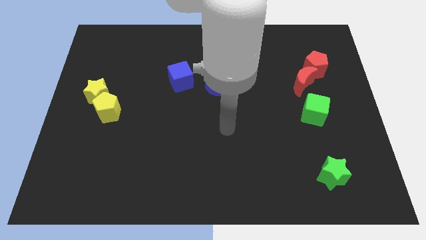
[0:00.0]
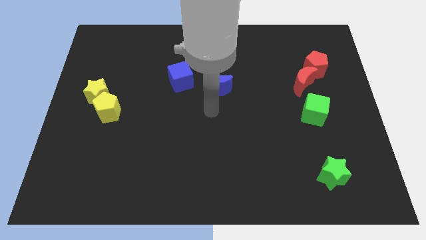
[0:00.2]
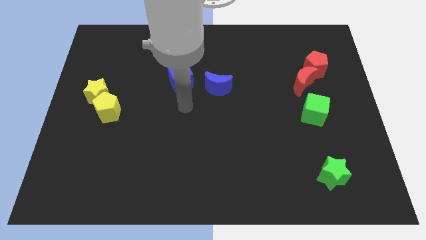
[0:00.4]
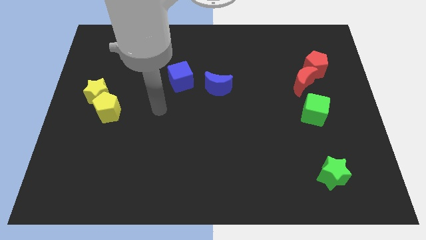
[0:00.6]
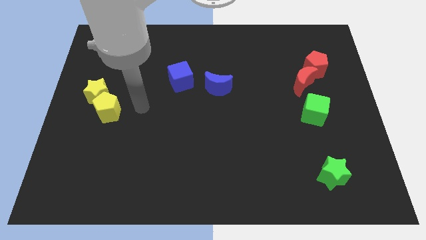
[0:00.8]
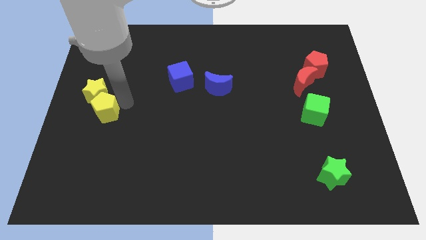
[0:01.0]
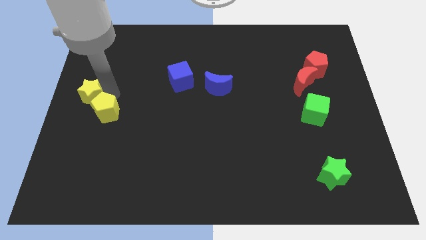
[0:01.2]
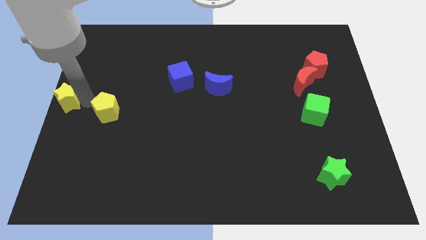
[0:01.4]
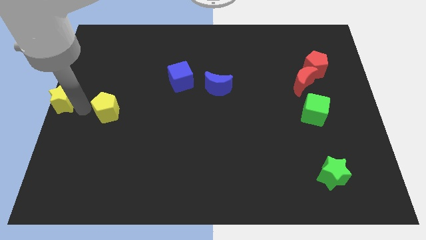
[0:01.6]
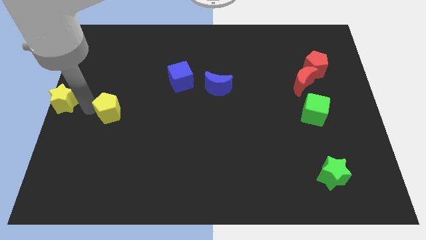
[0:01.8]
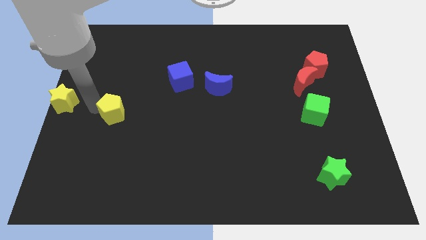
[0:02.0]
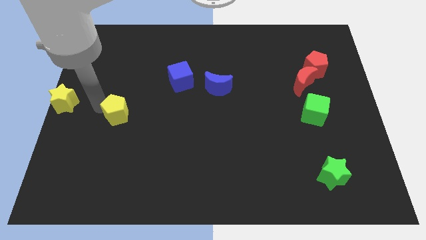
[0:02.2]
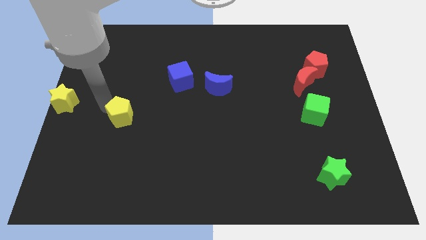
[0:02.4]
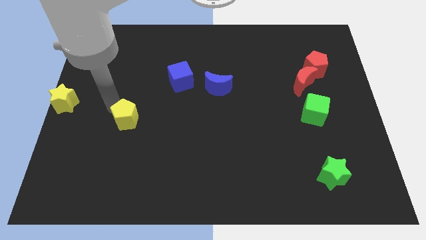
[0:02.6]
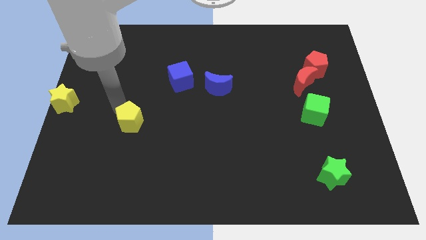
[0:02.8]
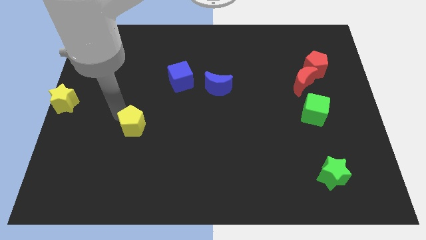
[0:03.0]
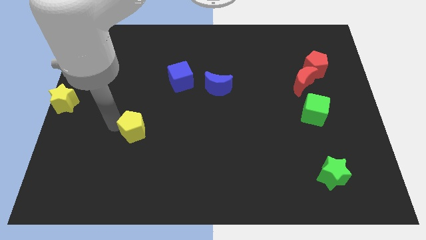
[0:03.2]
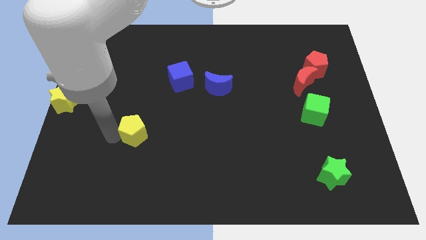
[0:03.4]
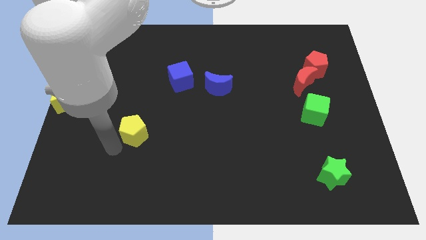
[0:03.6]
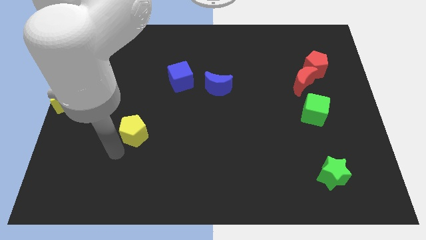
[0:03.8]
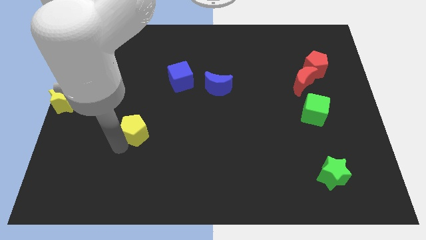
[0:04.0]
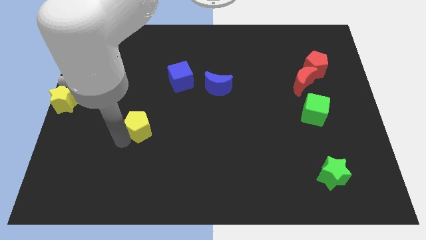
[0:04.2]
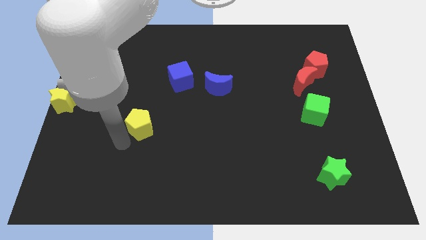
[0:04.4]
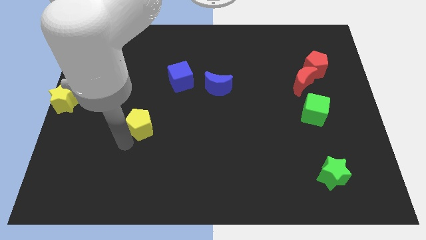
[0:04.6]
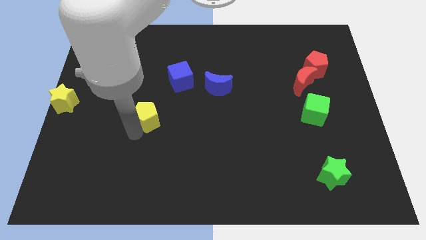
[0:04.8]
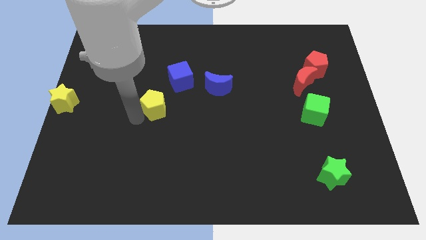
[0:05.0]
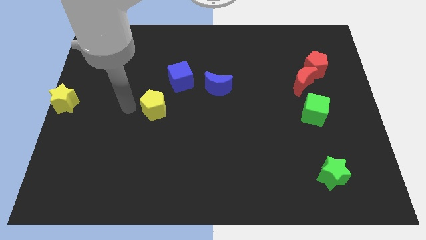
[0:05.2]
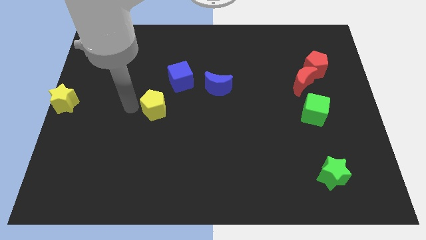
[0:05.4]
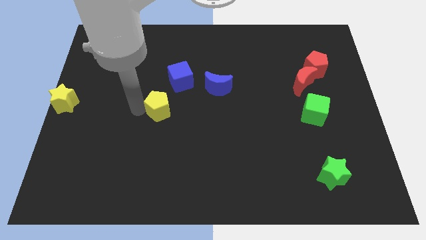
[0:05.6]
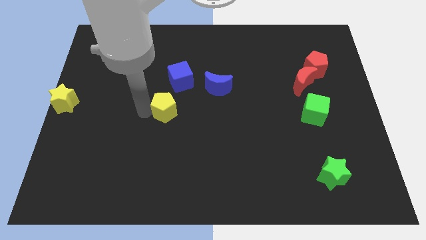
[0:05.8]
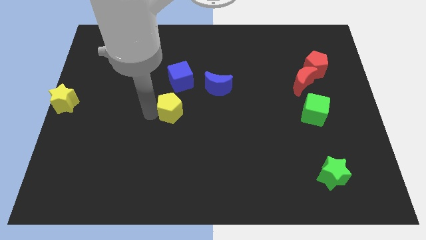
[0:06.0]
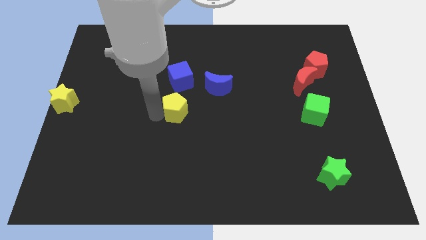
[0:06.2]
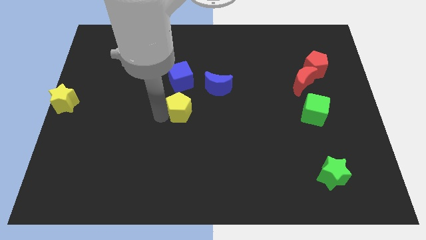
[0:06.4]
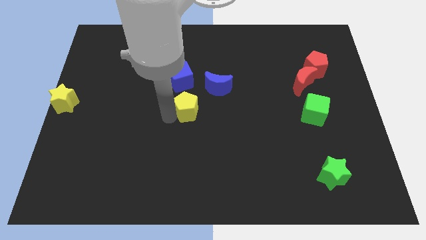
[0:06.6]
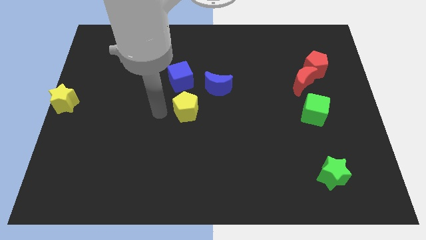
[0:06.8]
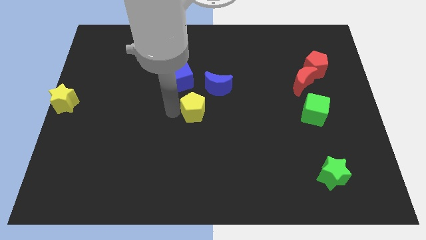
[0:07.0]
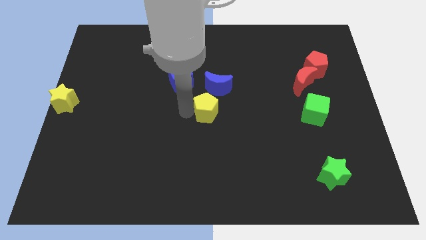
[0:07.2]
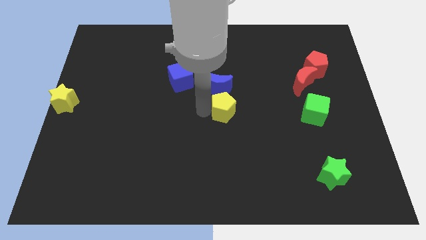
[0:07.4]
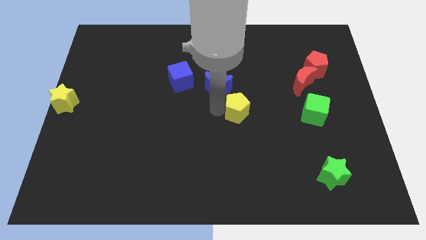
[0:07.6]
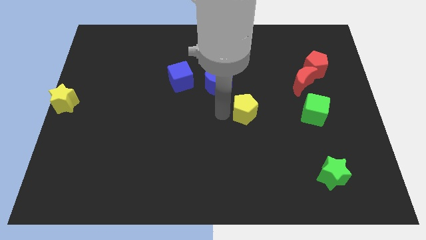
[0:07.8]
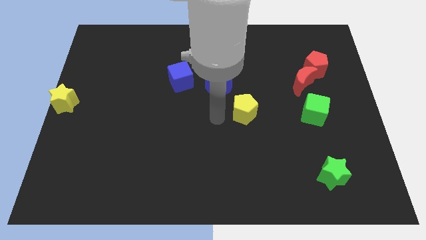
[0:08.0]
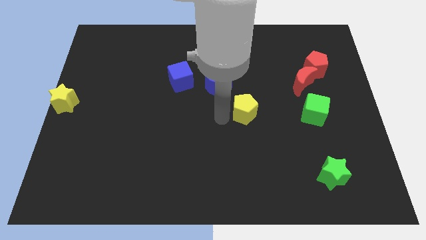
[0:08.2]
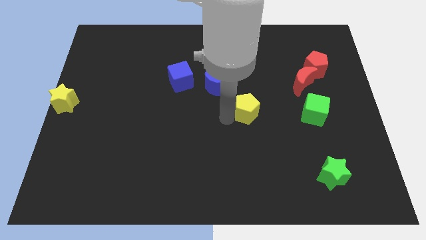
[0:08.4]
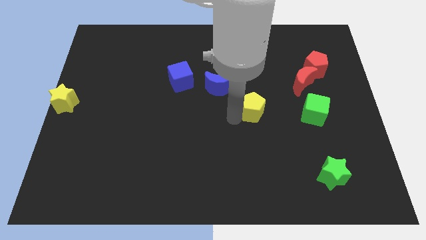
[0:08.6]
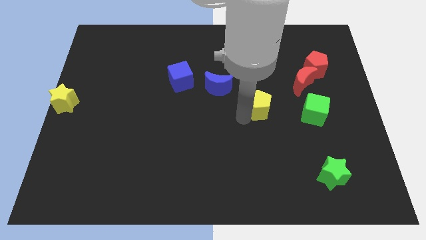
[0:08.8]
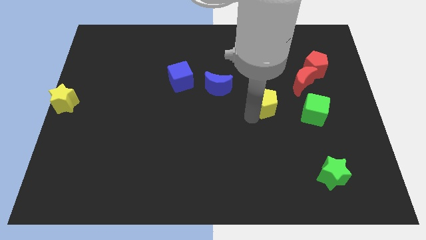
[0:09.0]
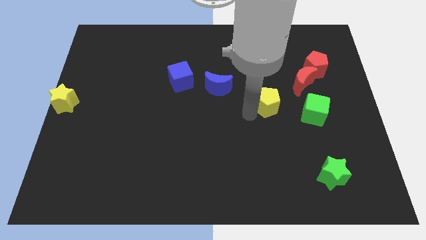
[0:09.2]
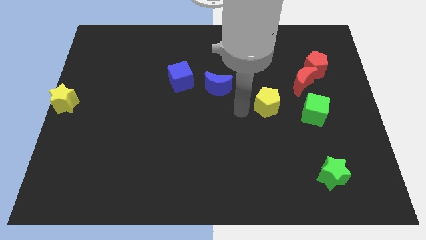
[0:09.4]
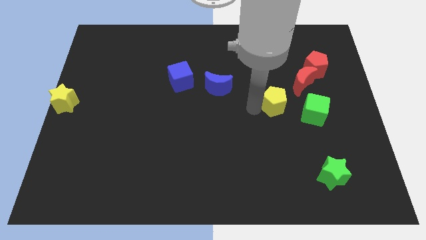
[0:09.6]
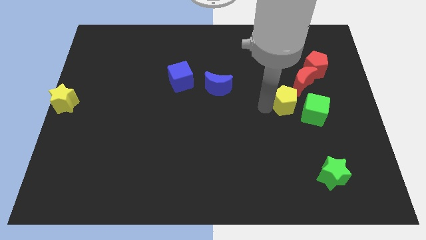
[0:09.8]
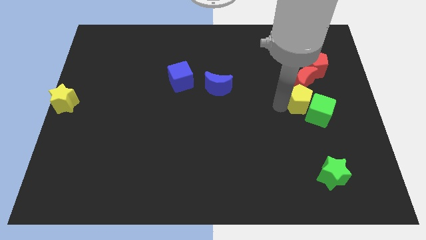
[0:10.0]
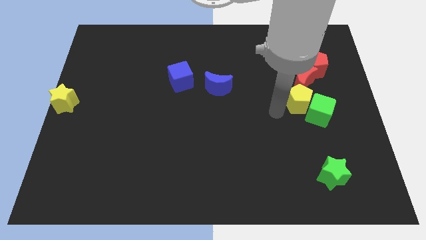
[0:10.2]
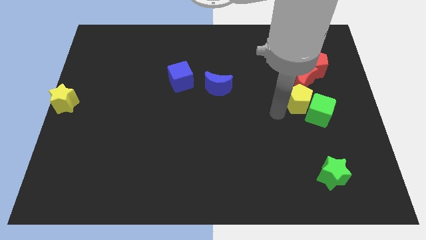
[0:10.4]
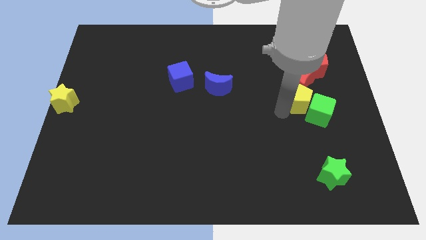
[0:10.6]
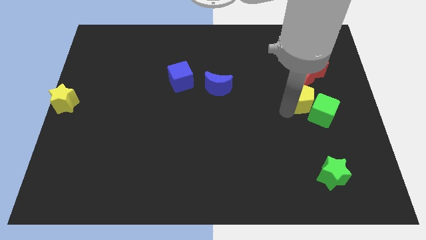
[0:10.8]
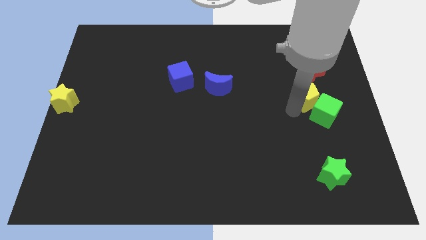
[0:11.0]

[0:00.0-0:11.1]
push the yellow pentagon to the bottom right side of the red moon

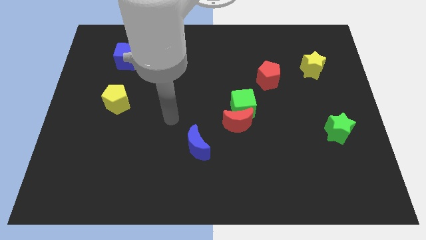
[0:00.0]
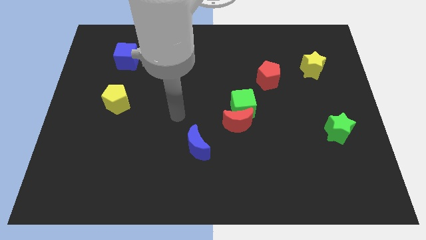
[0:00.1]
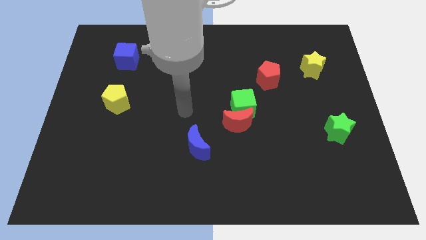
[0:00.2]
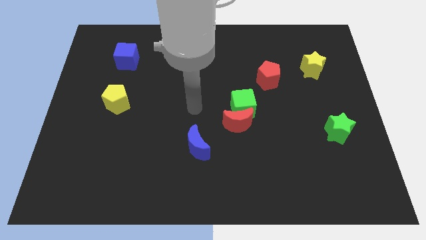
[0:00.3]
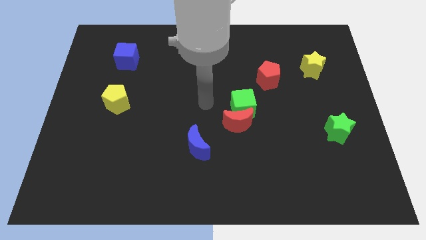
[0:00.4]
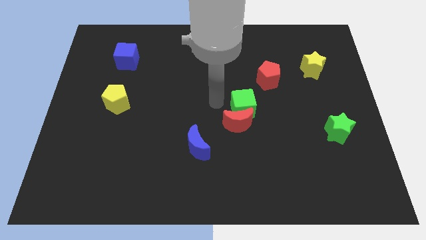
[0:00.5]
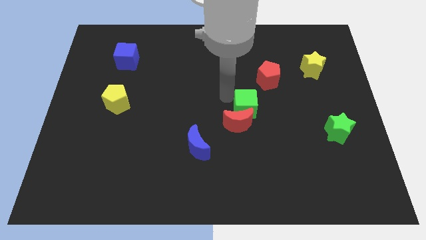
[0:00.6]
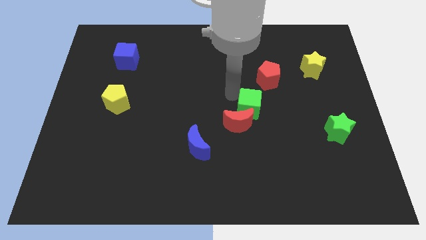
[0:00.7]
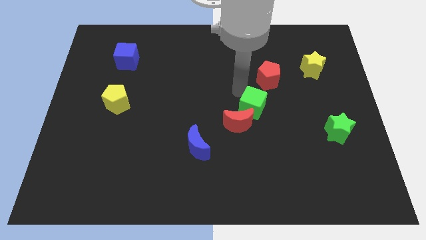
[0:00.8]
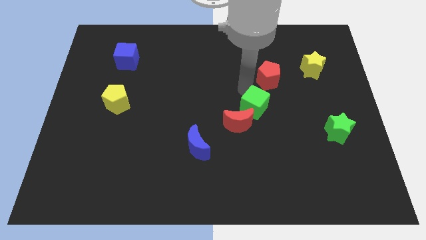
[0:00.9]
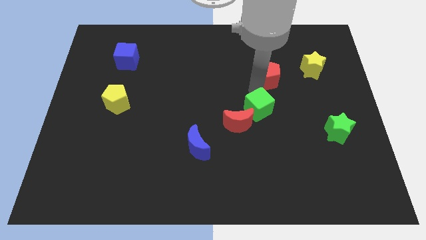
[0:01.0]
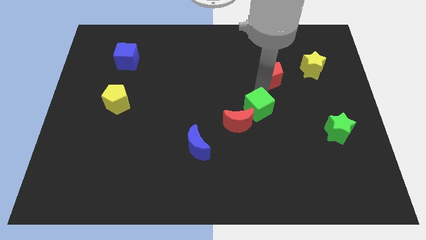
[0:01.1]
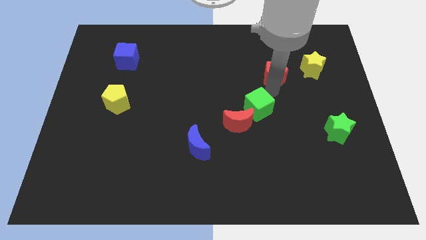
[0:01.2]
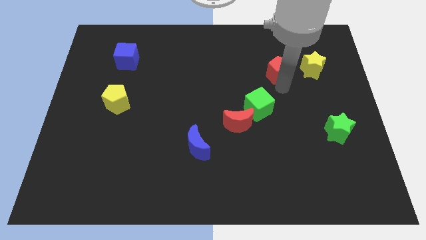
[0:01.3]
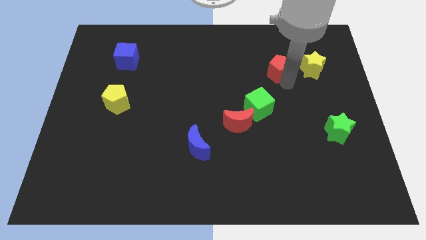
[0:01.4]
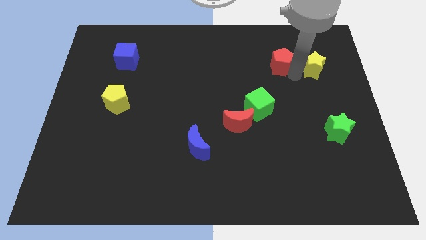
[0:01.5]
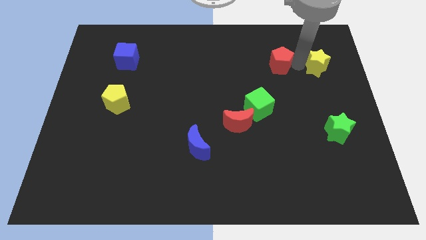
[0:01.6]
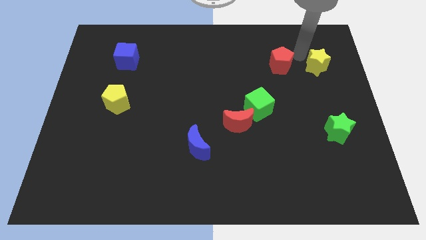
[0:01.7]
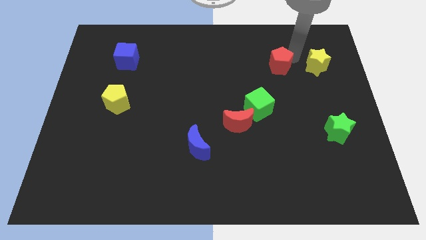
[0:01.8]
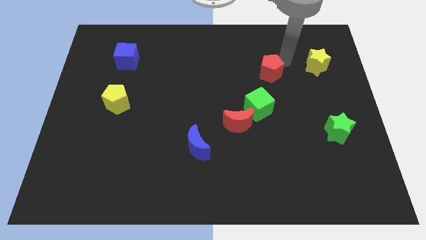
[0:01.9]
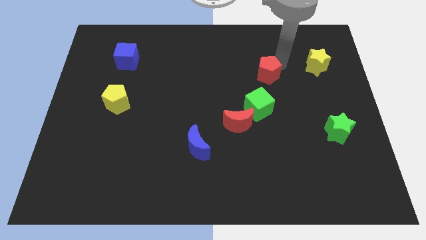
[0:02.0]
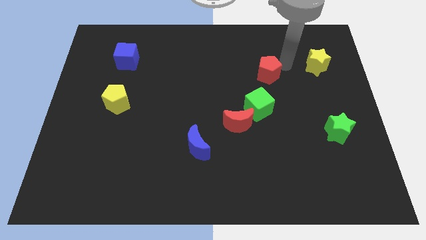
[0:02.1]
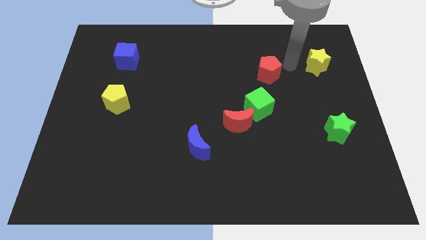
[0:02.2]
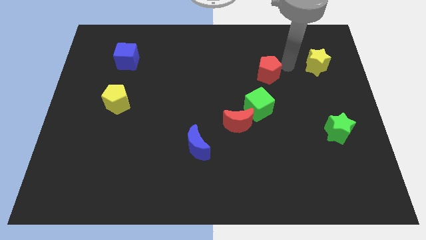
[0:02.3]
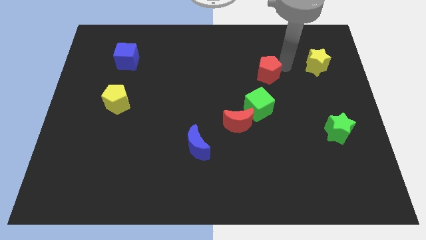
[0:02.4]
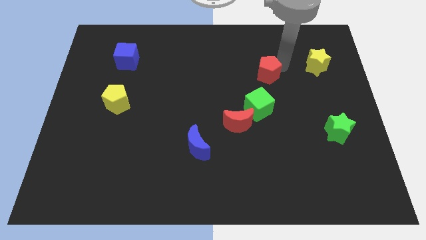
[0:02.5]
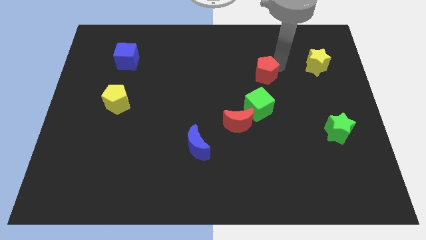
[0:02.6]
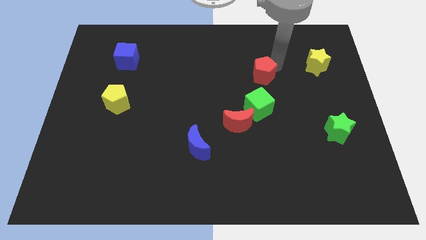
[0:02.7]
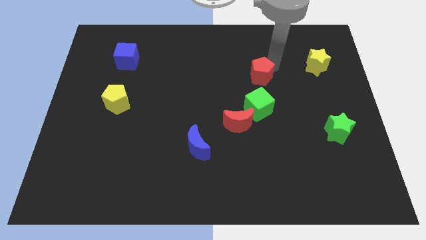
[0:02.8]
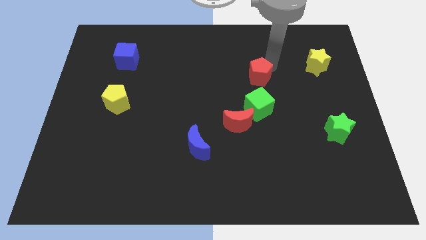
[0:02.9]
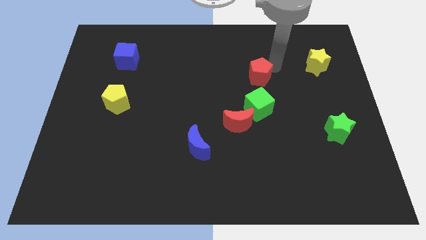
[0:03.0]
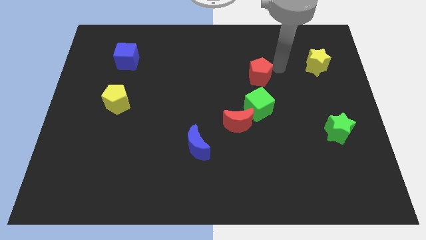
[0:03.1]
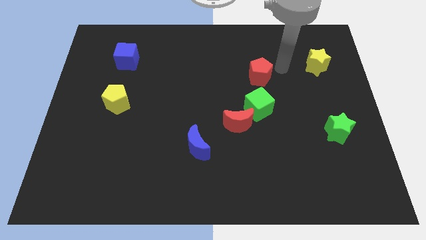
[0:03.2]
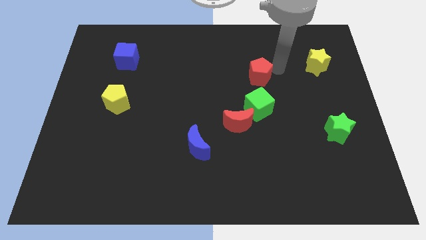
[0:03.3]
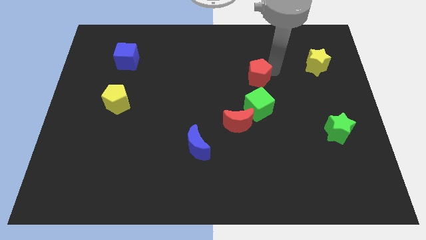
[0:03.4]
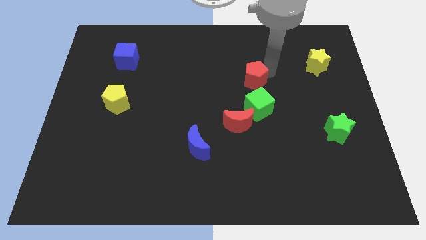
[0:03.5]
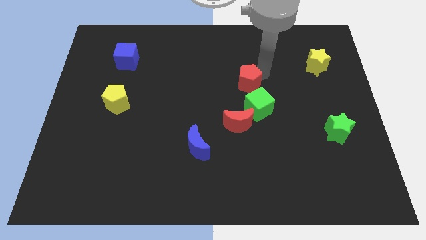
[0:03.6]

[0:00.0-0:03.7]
put the red pentagon to the top of the red moon
